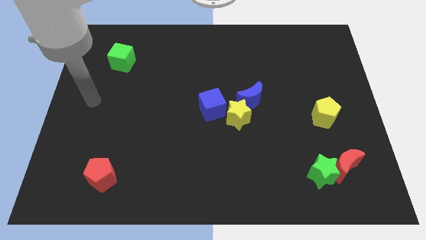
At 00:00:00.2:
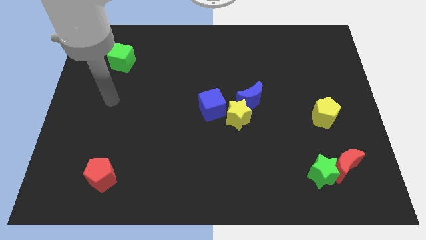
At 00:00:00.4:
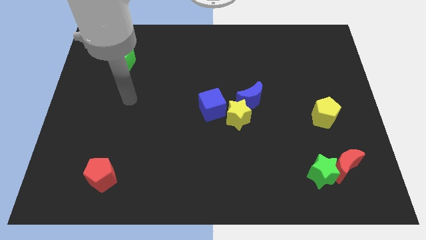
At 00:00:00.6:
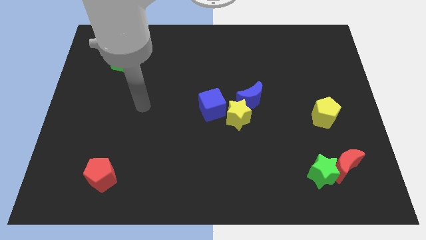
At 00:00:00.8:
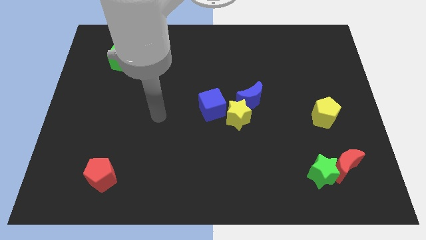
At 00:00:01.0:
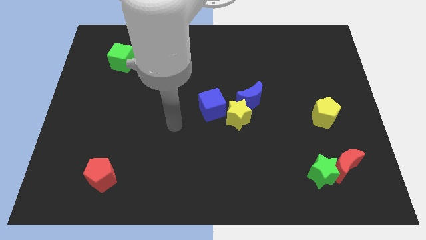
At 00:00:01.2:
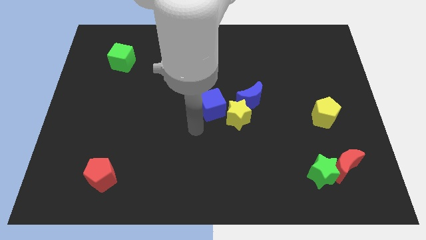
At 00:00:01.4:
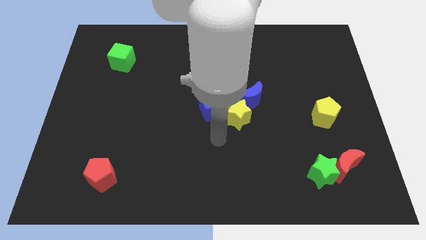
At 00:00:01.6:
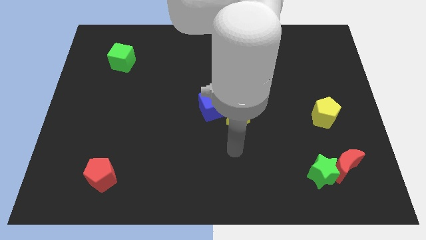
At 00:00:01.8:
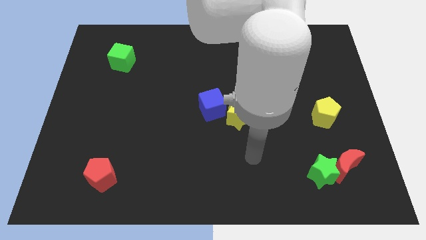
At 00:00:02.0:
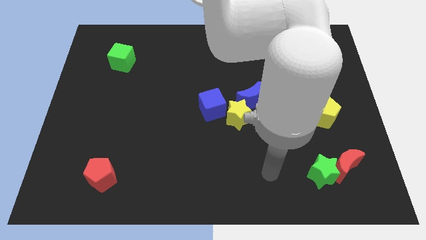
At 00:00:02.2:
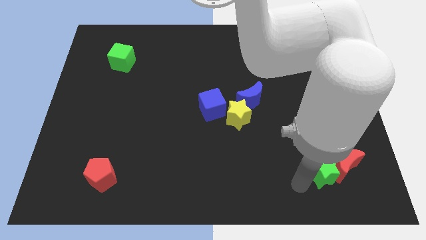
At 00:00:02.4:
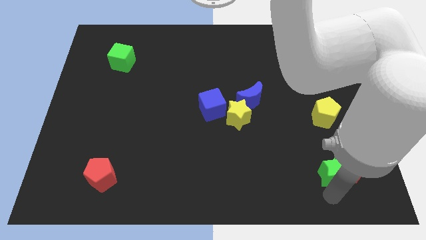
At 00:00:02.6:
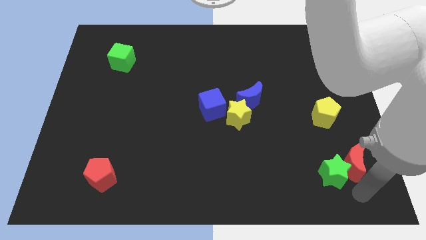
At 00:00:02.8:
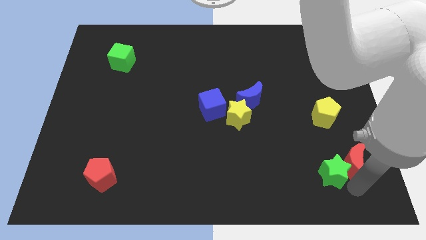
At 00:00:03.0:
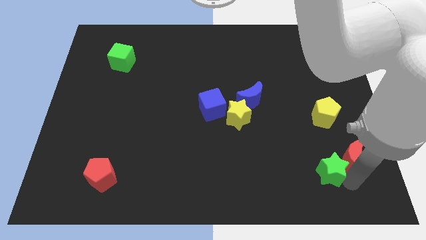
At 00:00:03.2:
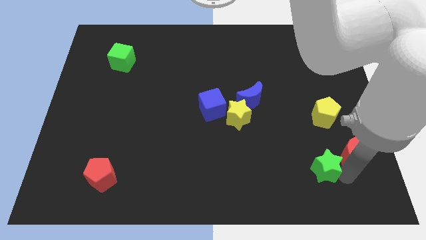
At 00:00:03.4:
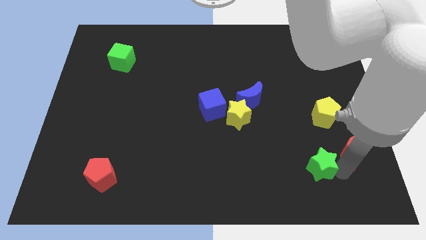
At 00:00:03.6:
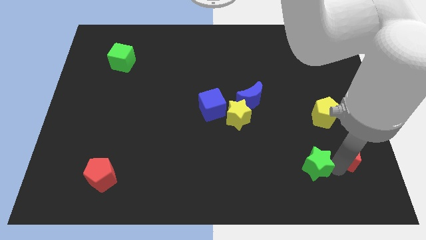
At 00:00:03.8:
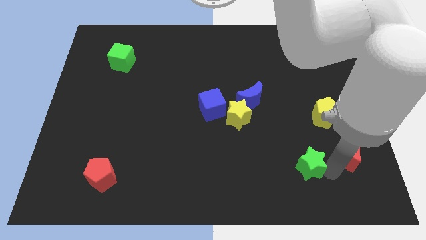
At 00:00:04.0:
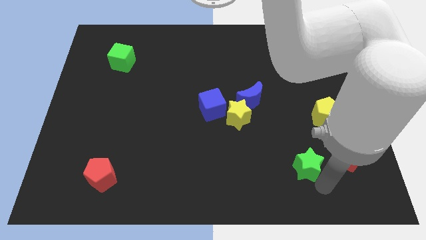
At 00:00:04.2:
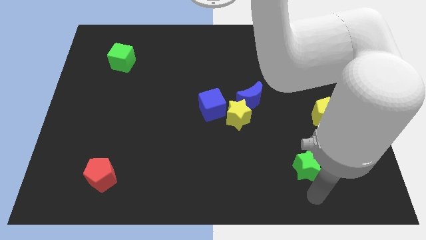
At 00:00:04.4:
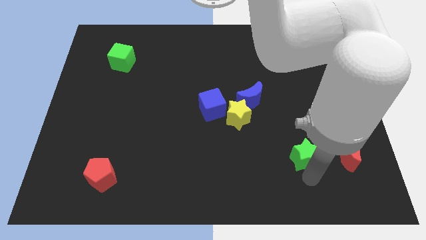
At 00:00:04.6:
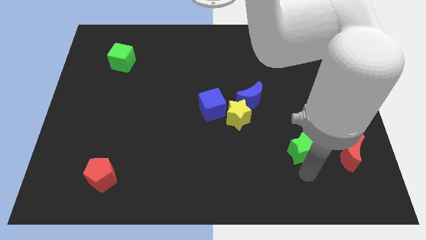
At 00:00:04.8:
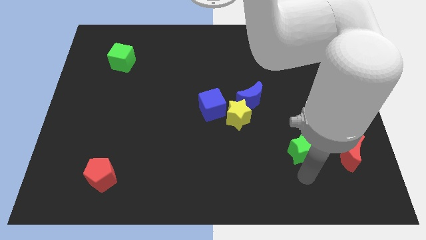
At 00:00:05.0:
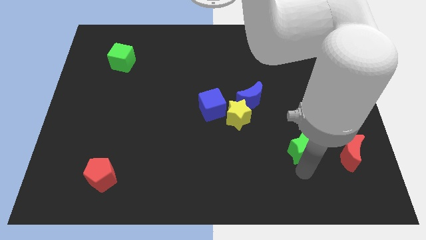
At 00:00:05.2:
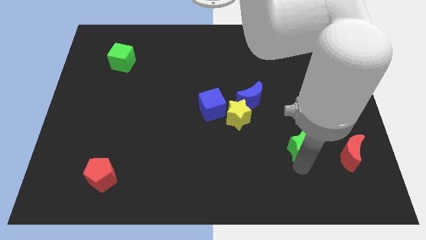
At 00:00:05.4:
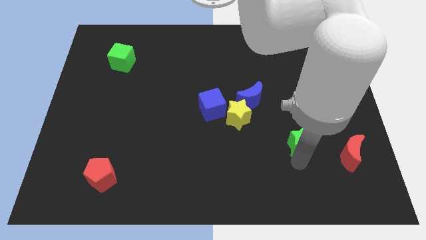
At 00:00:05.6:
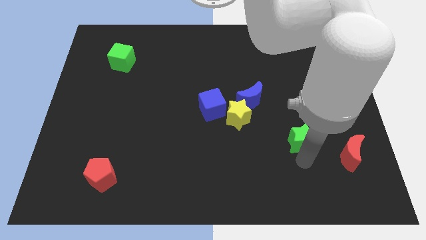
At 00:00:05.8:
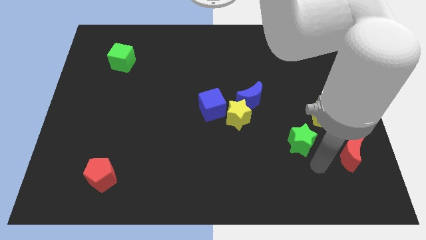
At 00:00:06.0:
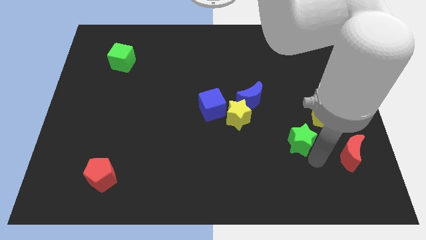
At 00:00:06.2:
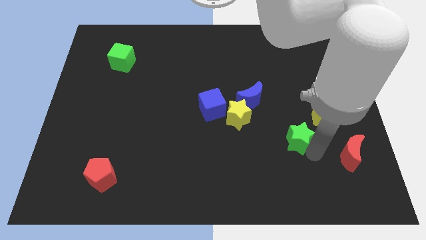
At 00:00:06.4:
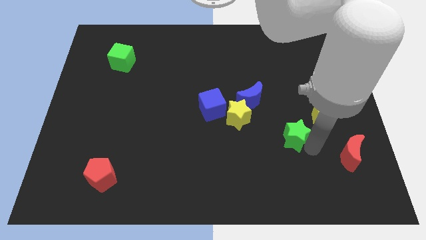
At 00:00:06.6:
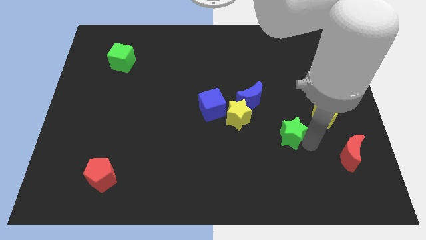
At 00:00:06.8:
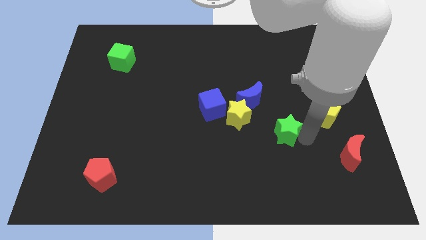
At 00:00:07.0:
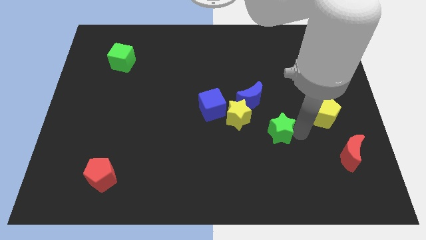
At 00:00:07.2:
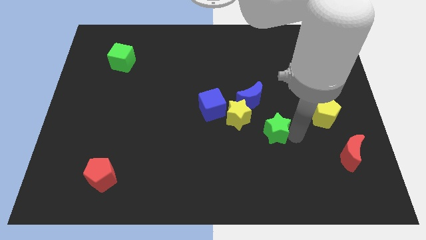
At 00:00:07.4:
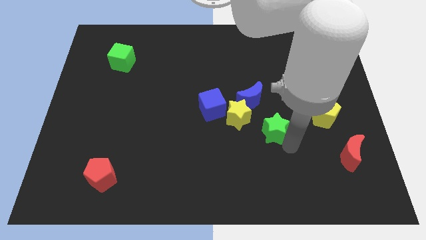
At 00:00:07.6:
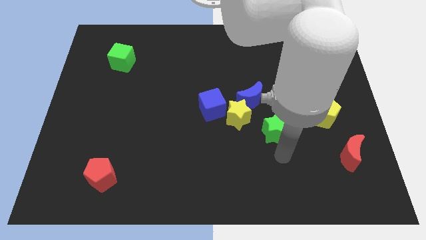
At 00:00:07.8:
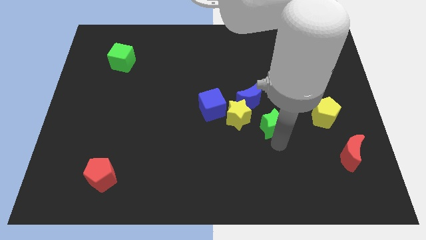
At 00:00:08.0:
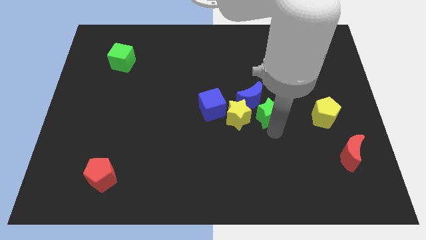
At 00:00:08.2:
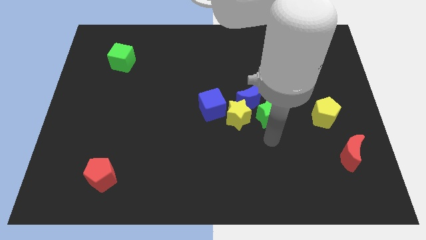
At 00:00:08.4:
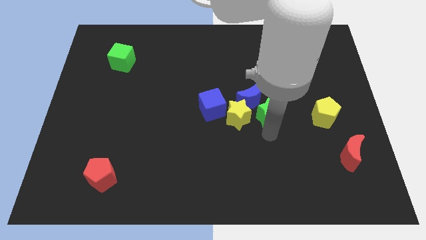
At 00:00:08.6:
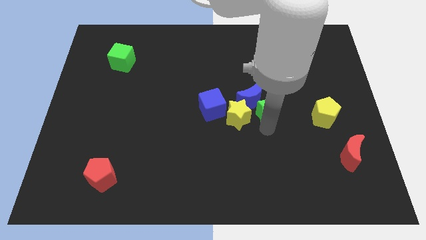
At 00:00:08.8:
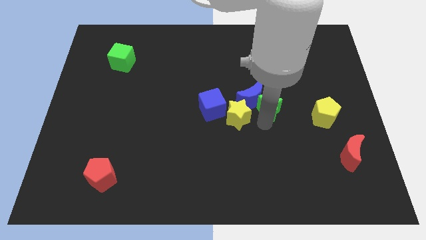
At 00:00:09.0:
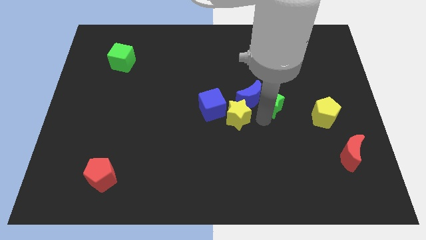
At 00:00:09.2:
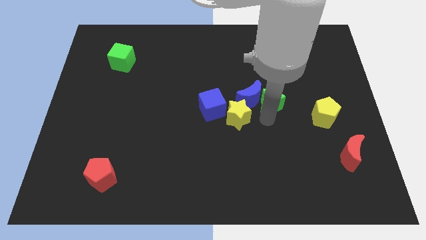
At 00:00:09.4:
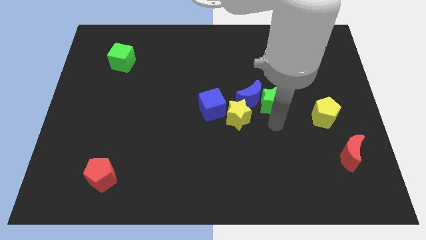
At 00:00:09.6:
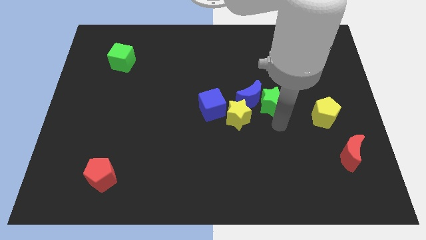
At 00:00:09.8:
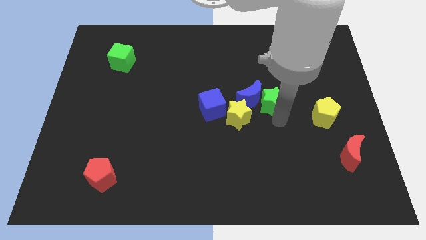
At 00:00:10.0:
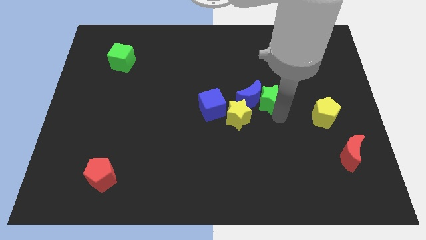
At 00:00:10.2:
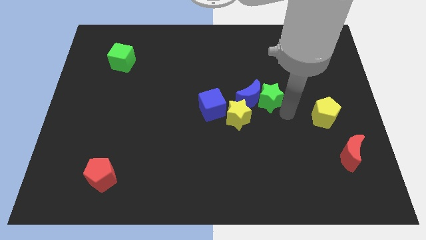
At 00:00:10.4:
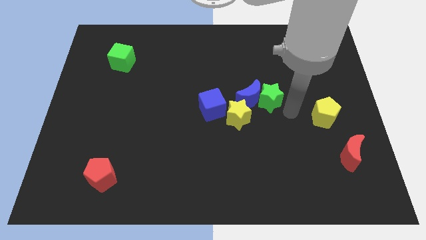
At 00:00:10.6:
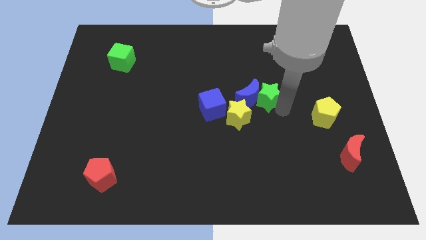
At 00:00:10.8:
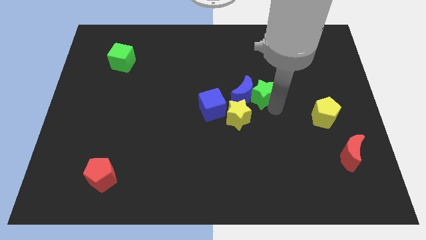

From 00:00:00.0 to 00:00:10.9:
move the green star up and to the left diagonally

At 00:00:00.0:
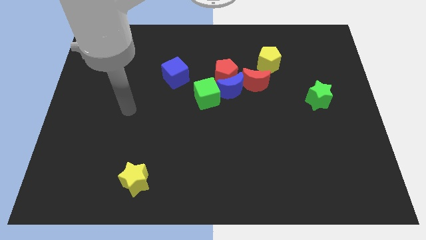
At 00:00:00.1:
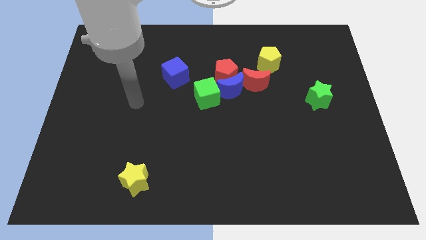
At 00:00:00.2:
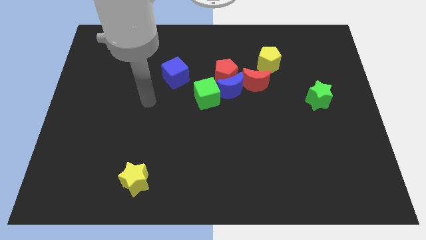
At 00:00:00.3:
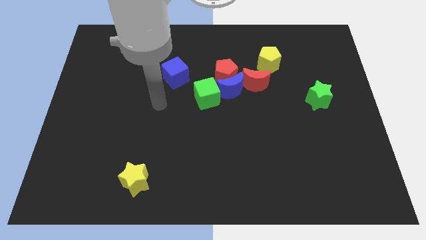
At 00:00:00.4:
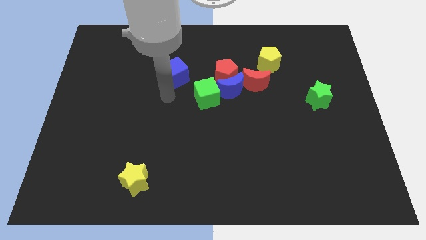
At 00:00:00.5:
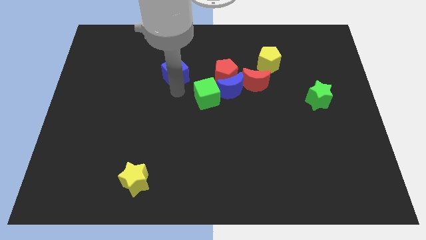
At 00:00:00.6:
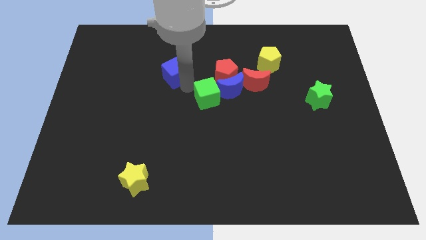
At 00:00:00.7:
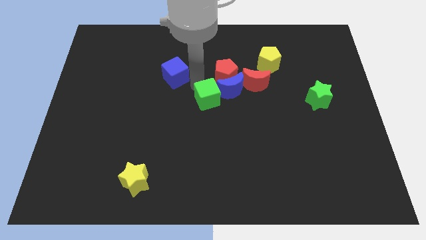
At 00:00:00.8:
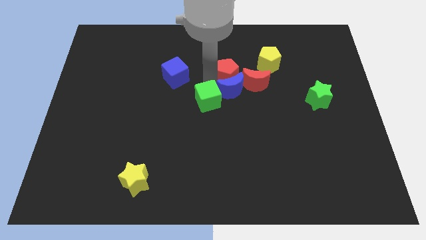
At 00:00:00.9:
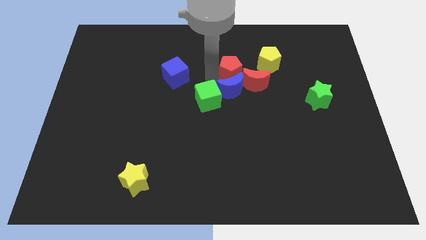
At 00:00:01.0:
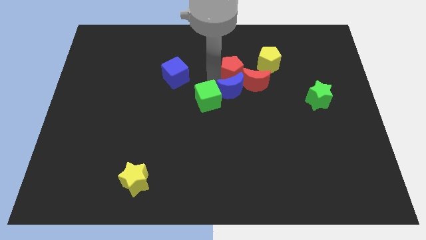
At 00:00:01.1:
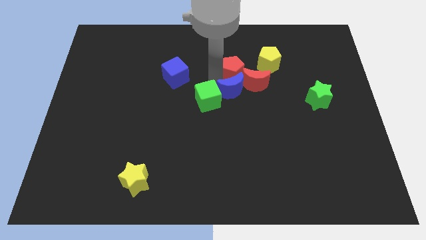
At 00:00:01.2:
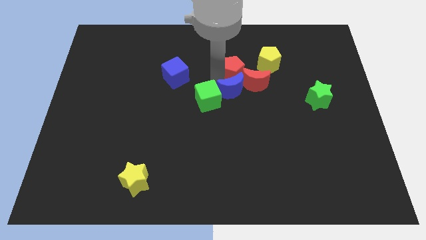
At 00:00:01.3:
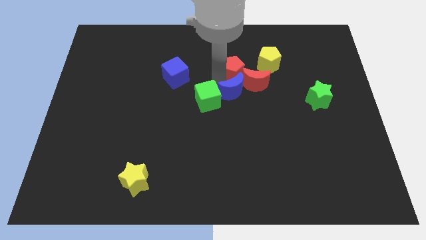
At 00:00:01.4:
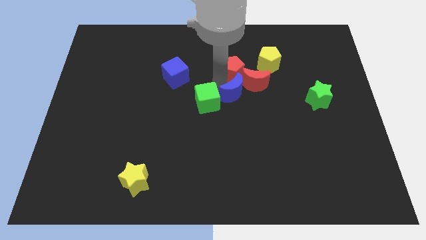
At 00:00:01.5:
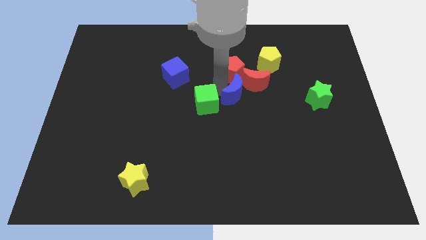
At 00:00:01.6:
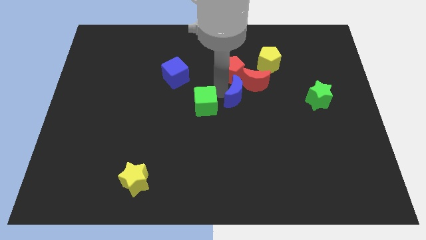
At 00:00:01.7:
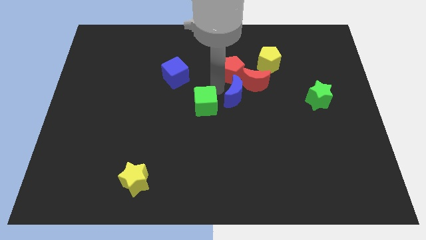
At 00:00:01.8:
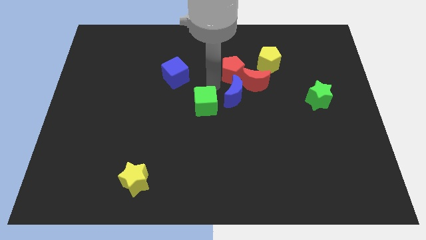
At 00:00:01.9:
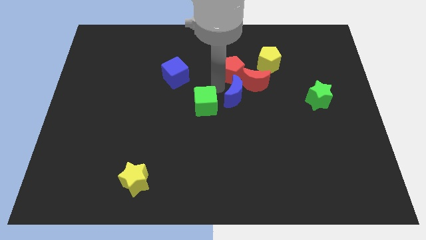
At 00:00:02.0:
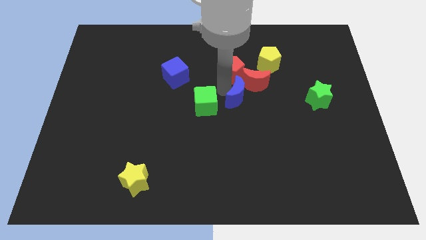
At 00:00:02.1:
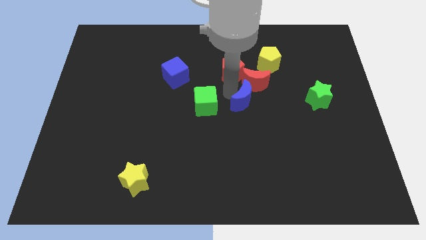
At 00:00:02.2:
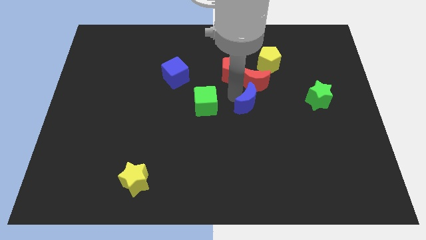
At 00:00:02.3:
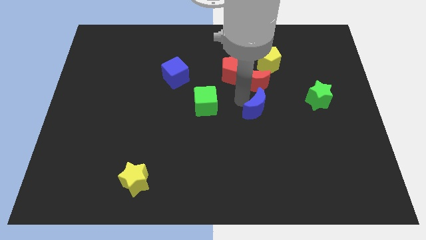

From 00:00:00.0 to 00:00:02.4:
push the blue moon a little bit downwards and to the right
